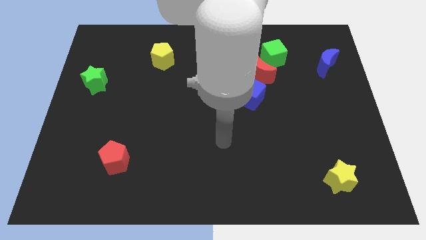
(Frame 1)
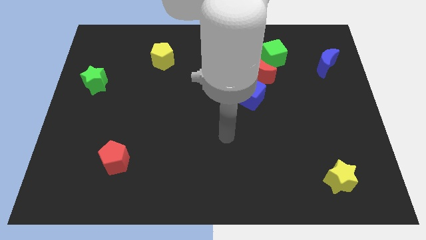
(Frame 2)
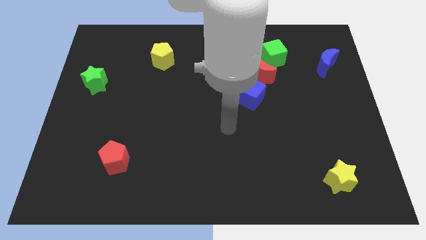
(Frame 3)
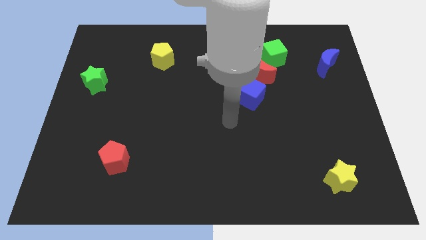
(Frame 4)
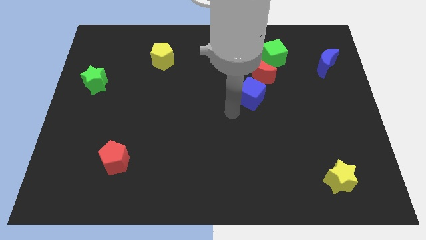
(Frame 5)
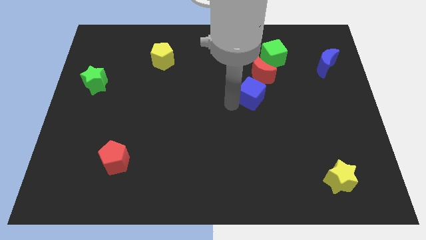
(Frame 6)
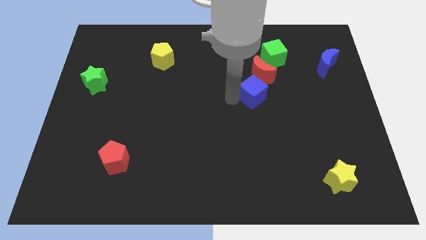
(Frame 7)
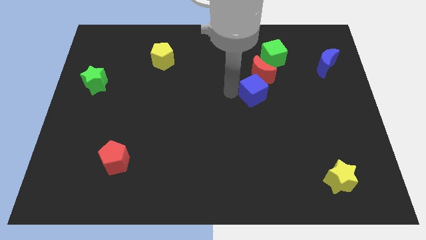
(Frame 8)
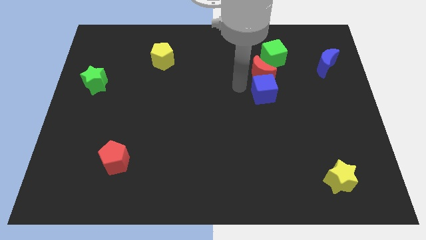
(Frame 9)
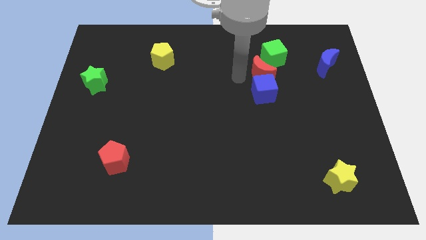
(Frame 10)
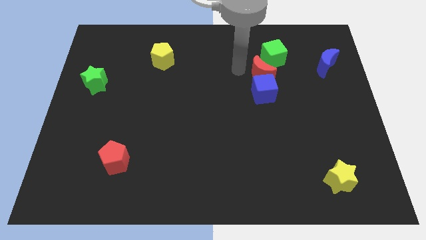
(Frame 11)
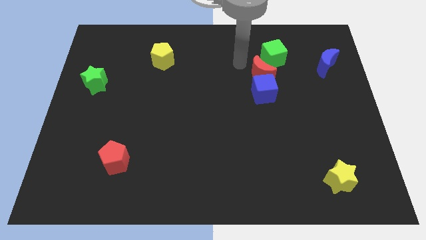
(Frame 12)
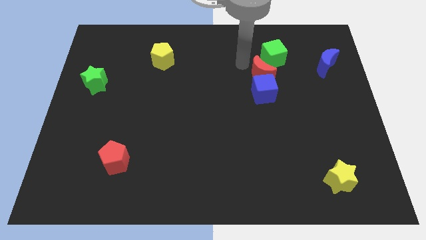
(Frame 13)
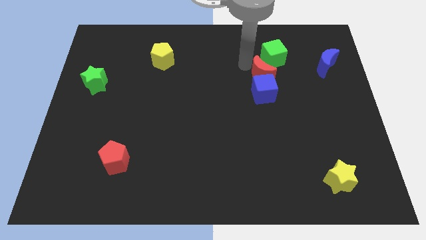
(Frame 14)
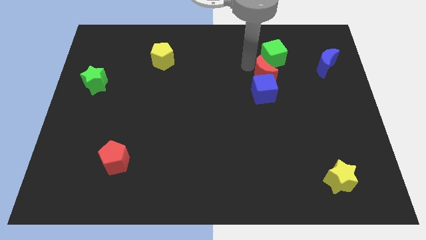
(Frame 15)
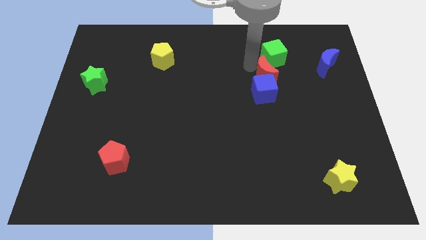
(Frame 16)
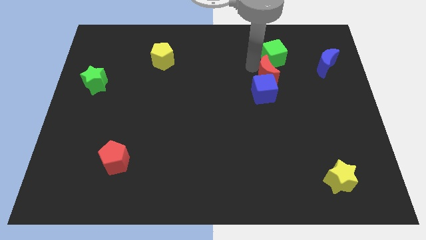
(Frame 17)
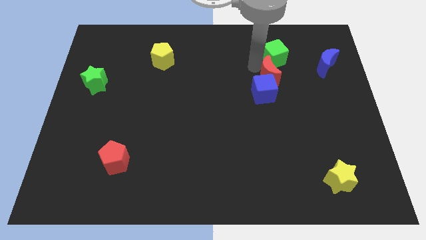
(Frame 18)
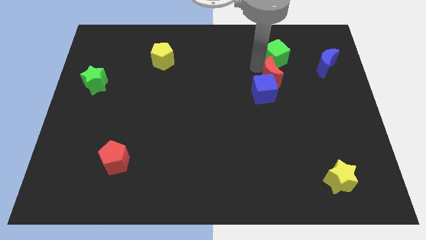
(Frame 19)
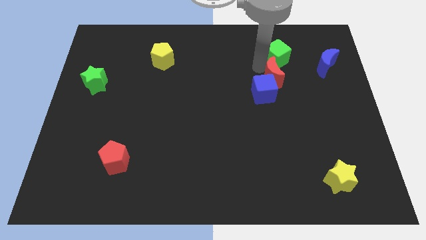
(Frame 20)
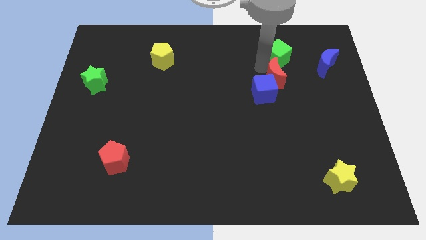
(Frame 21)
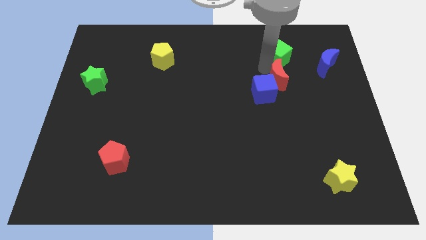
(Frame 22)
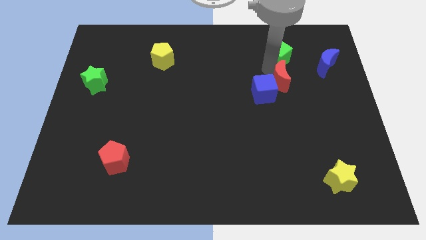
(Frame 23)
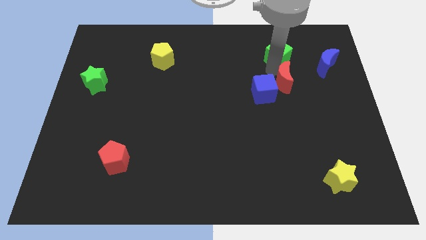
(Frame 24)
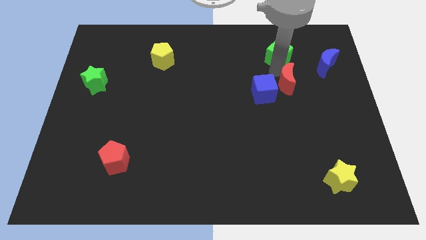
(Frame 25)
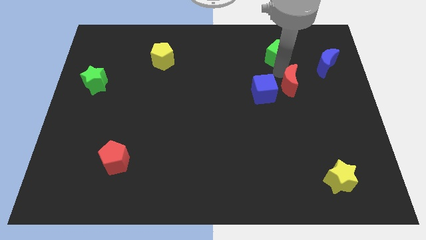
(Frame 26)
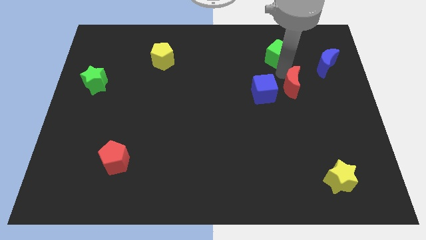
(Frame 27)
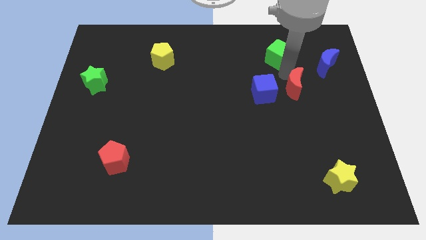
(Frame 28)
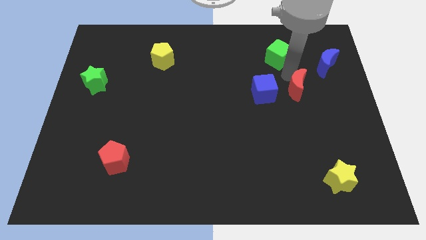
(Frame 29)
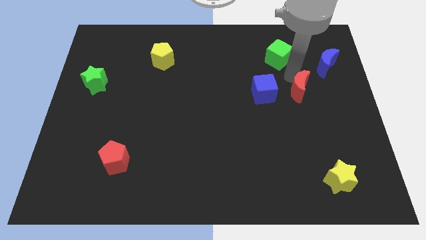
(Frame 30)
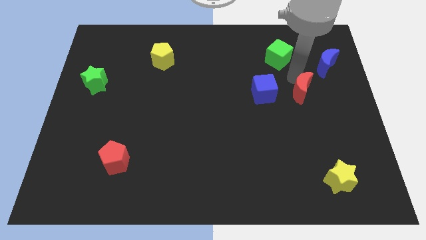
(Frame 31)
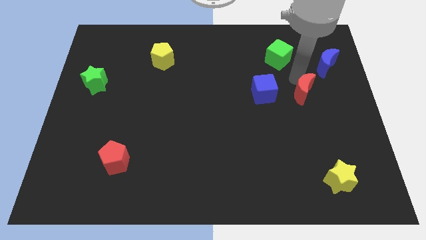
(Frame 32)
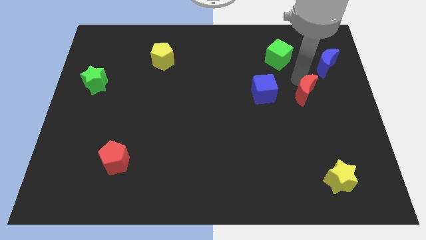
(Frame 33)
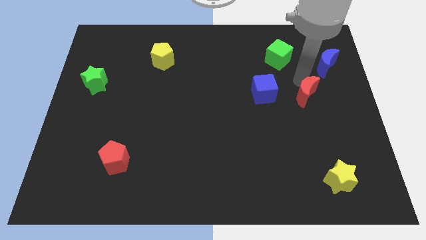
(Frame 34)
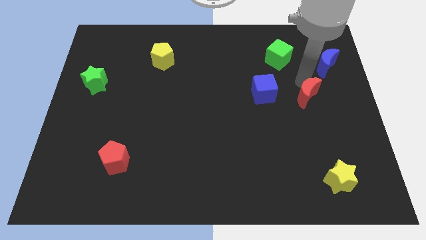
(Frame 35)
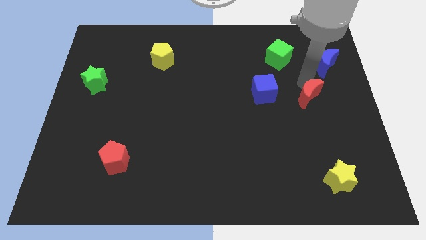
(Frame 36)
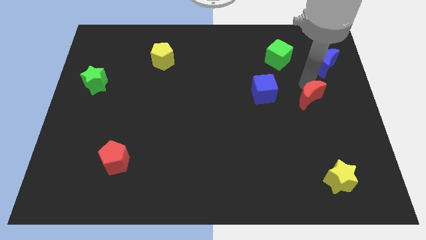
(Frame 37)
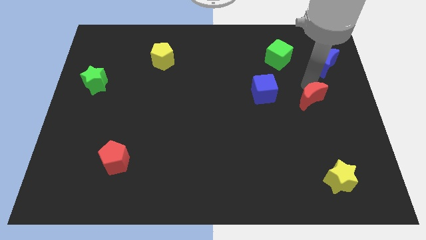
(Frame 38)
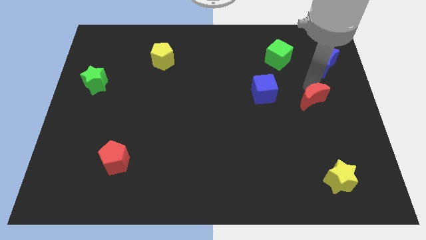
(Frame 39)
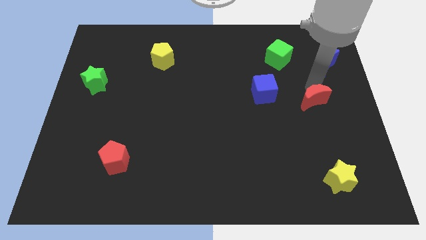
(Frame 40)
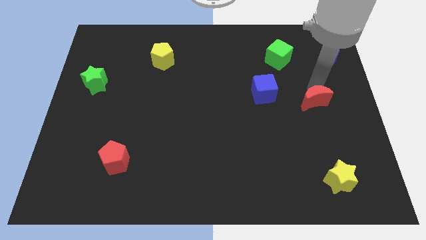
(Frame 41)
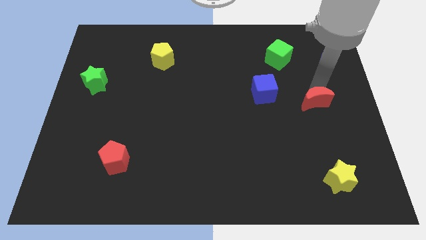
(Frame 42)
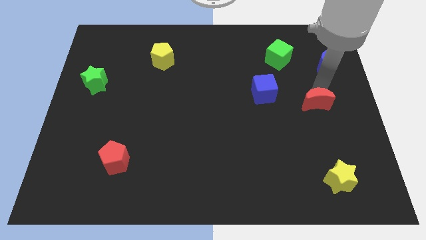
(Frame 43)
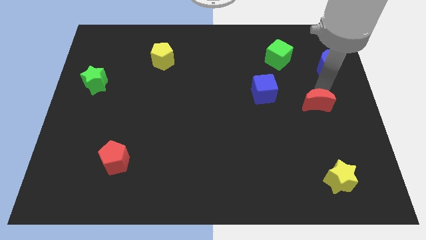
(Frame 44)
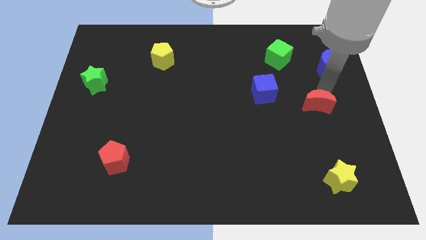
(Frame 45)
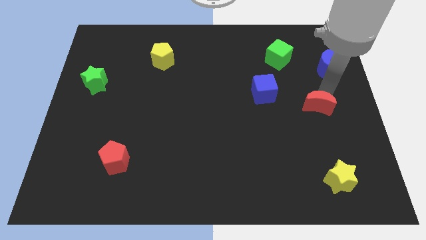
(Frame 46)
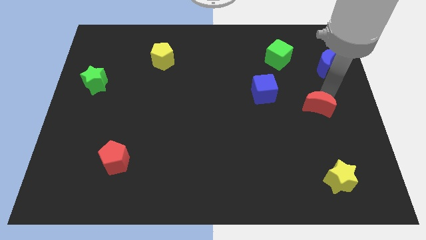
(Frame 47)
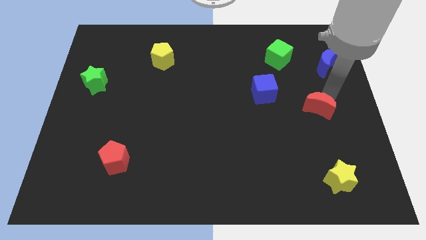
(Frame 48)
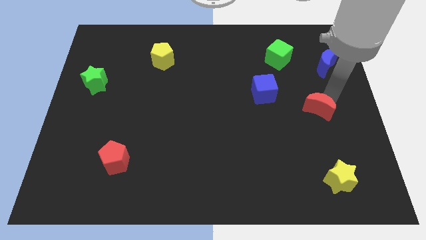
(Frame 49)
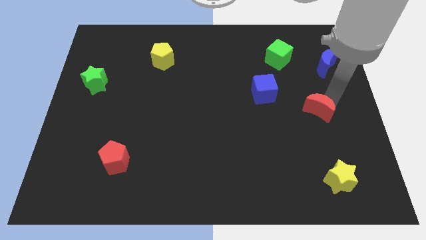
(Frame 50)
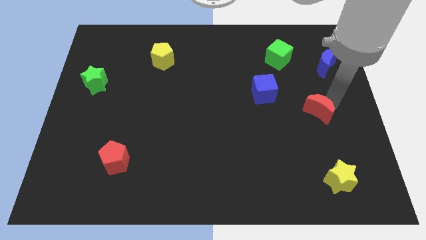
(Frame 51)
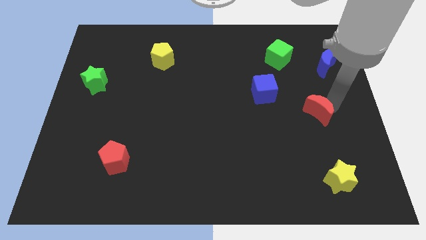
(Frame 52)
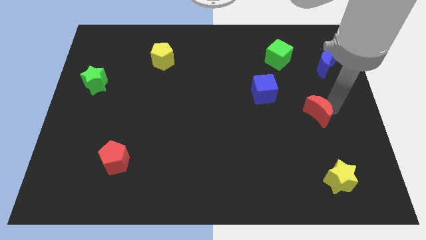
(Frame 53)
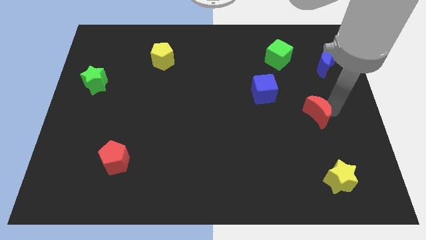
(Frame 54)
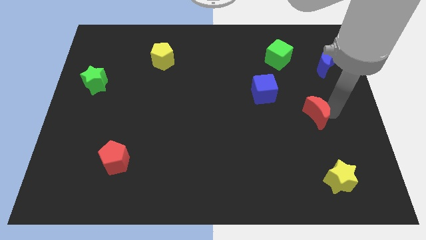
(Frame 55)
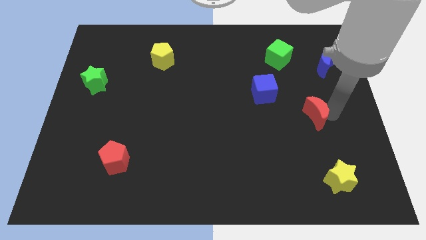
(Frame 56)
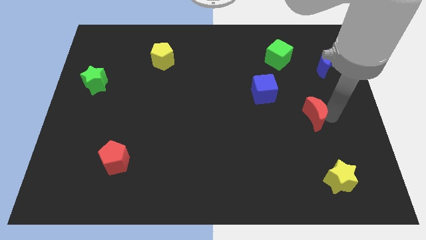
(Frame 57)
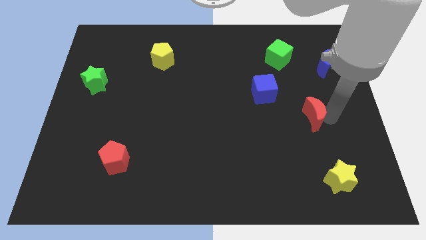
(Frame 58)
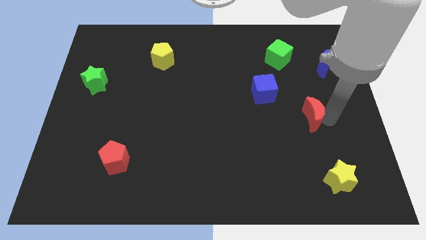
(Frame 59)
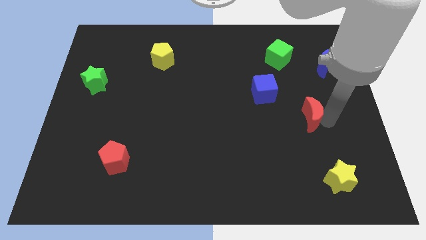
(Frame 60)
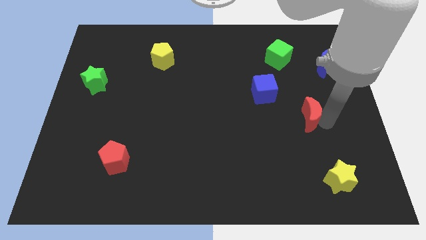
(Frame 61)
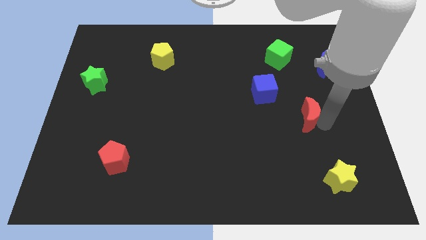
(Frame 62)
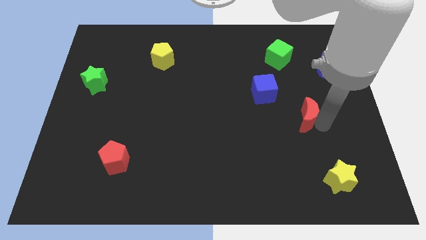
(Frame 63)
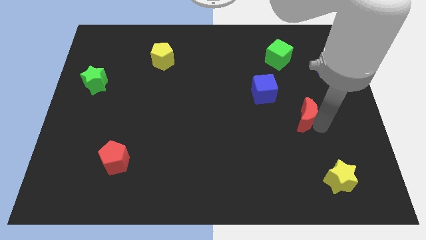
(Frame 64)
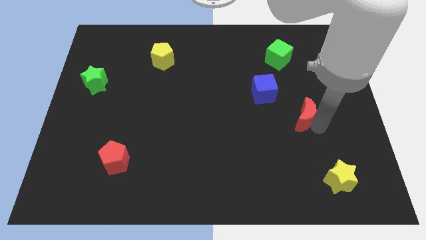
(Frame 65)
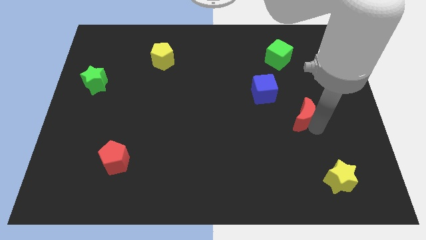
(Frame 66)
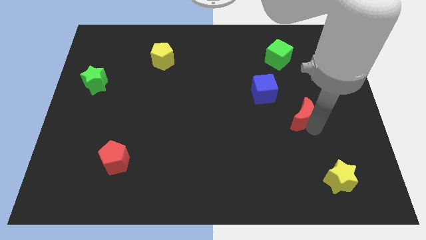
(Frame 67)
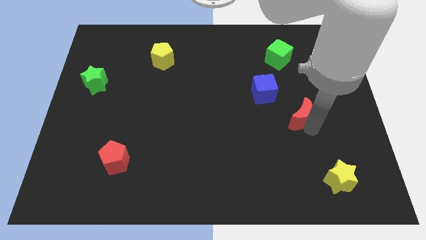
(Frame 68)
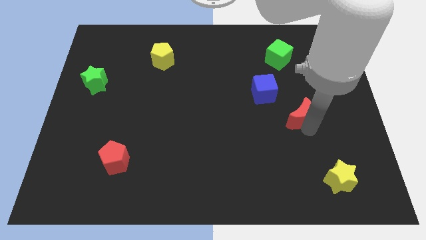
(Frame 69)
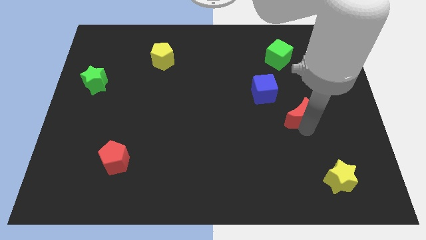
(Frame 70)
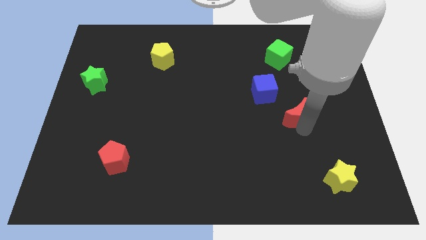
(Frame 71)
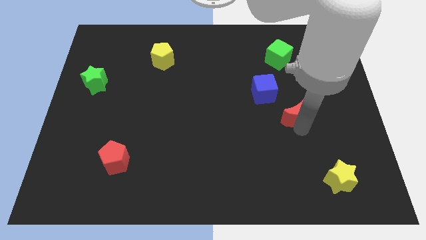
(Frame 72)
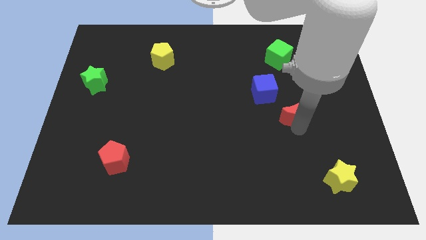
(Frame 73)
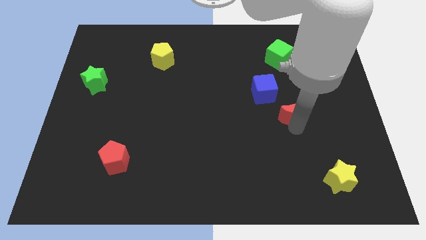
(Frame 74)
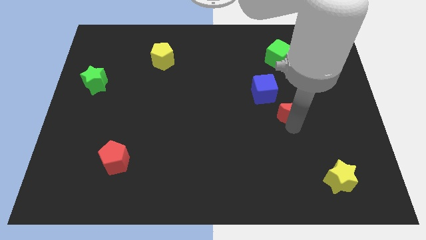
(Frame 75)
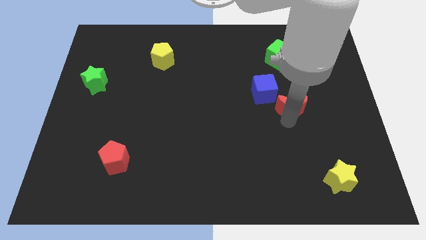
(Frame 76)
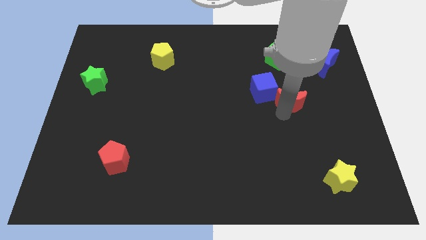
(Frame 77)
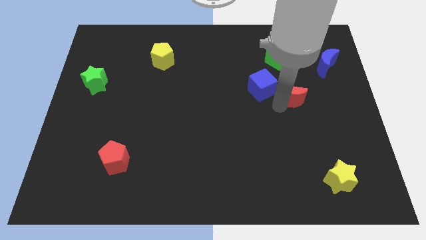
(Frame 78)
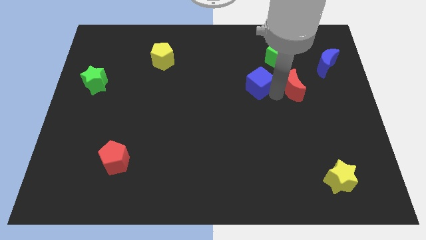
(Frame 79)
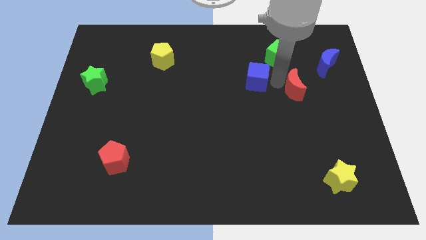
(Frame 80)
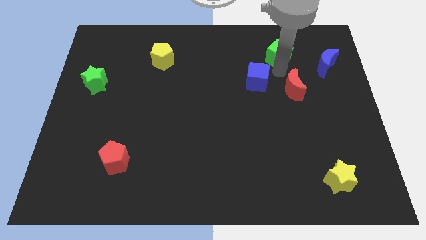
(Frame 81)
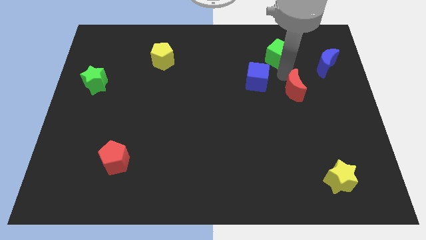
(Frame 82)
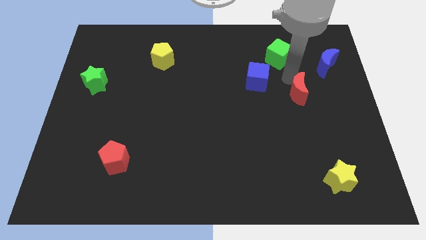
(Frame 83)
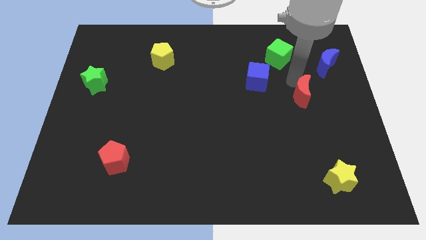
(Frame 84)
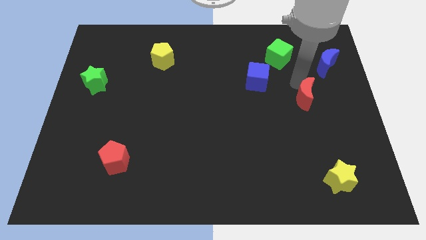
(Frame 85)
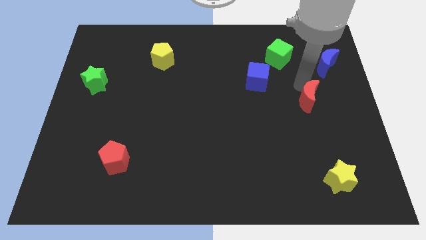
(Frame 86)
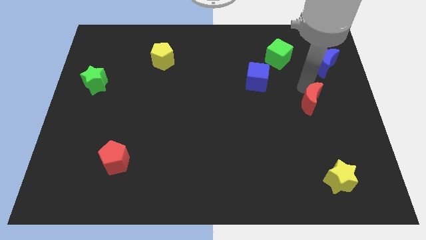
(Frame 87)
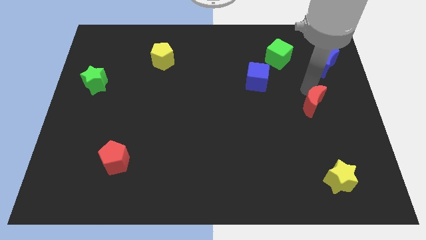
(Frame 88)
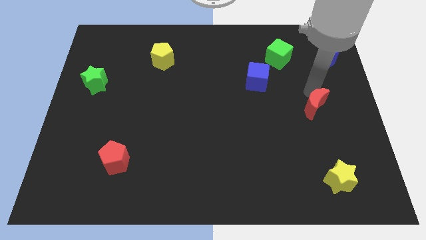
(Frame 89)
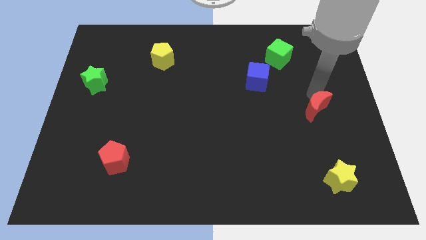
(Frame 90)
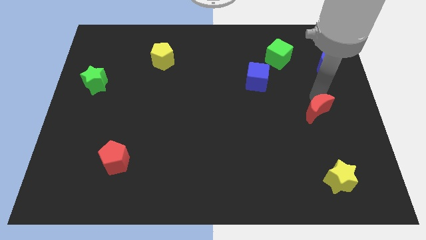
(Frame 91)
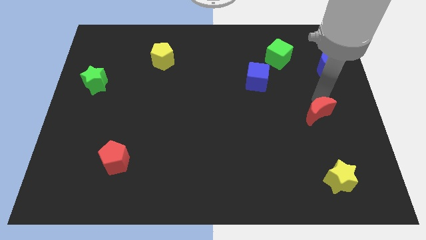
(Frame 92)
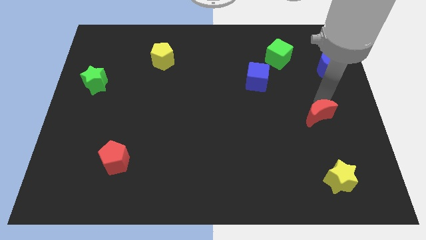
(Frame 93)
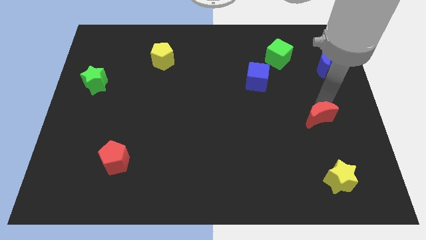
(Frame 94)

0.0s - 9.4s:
move the red moon to the top side of the yellow star
